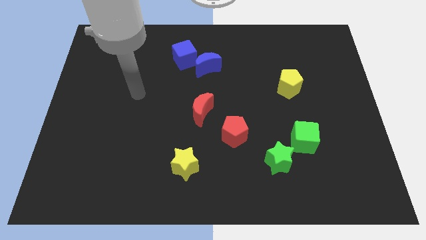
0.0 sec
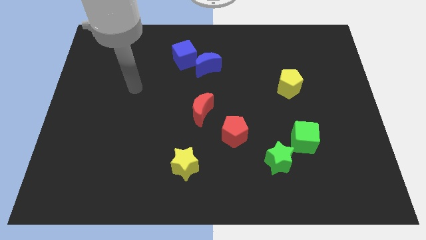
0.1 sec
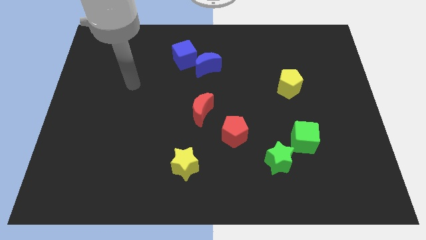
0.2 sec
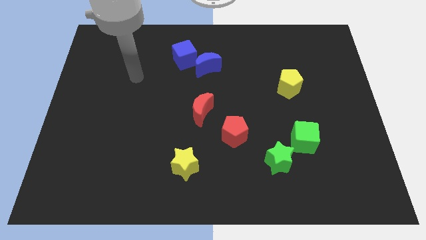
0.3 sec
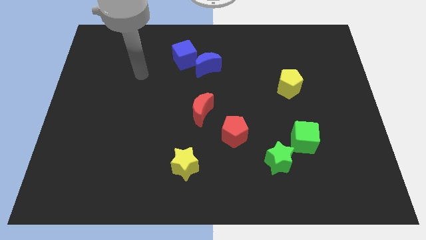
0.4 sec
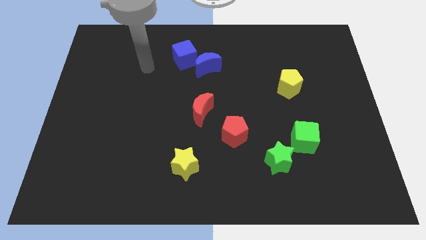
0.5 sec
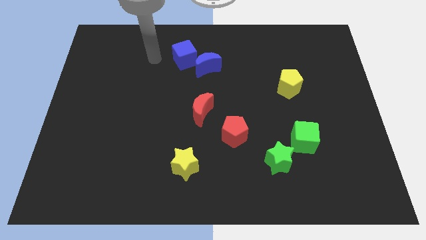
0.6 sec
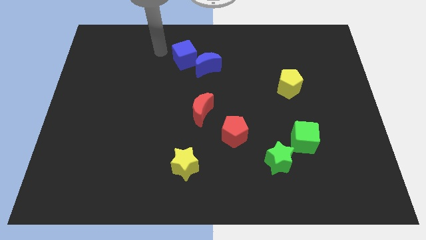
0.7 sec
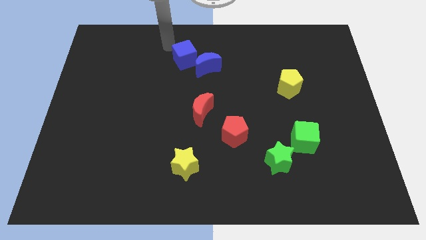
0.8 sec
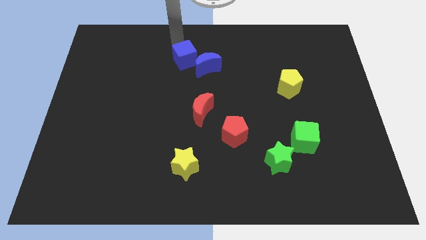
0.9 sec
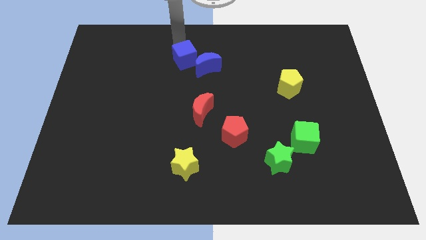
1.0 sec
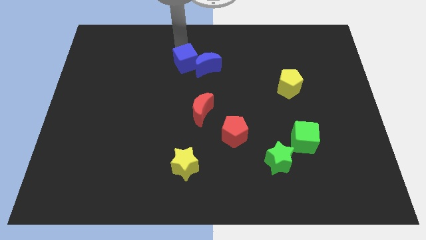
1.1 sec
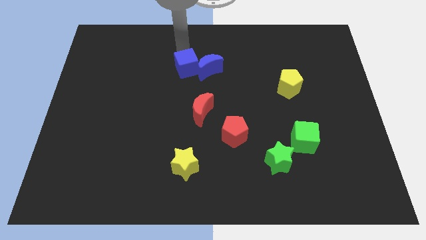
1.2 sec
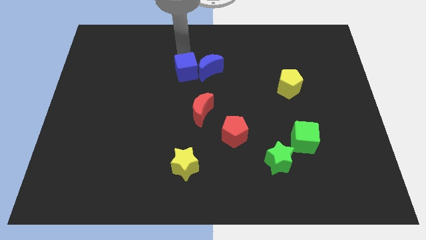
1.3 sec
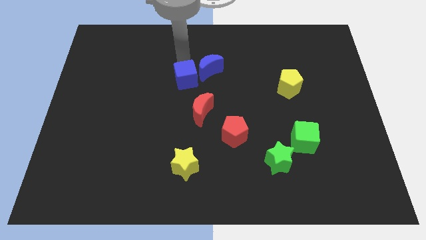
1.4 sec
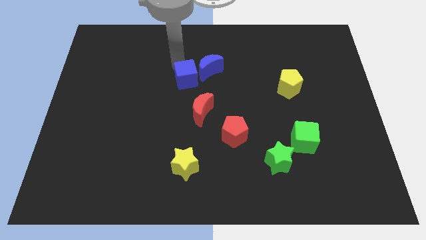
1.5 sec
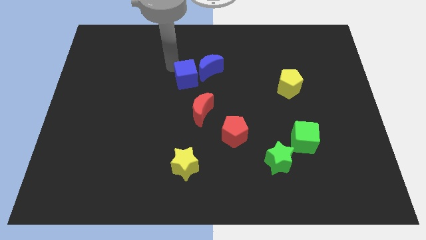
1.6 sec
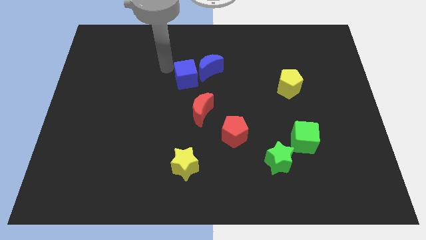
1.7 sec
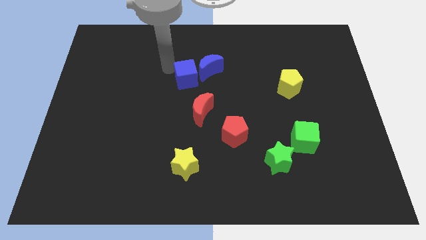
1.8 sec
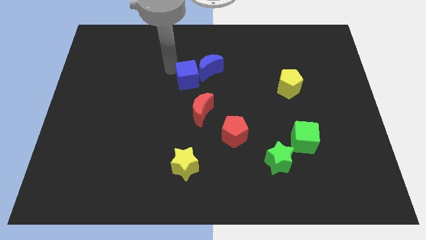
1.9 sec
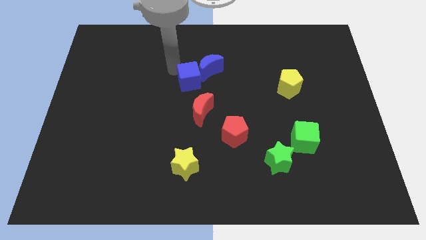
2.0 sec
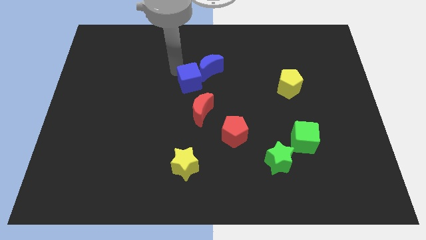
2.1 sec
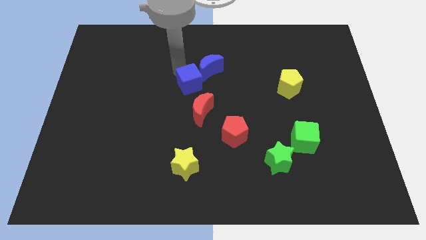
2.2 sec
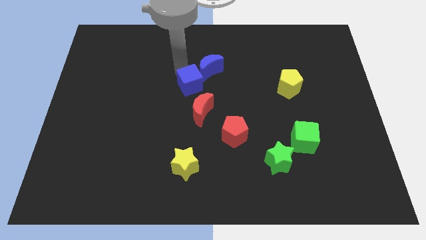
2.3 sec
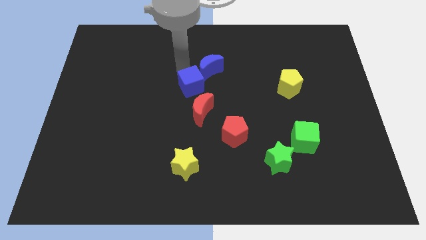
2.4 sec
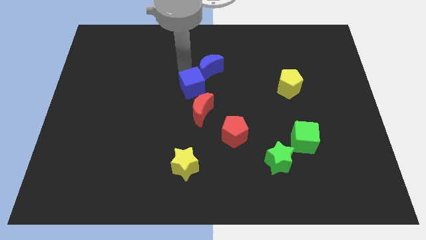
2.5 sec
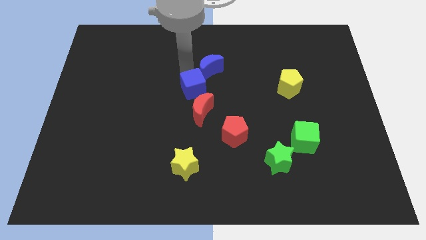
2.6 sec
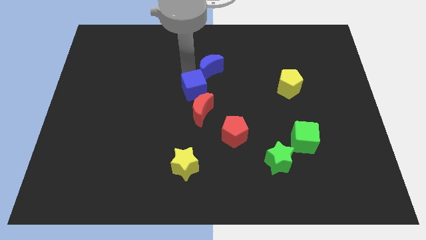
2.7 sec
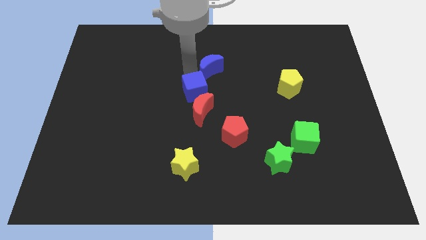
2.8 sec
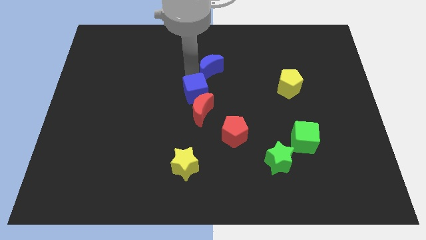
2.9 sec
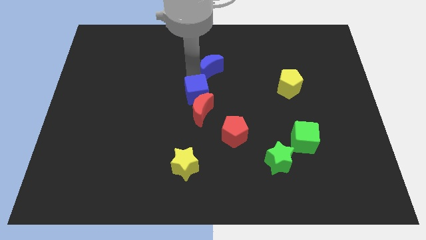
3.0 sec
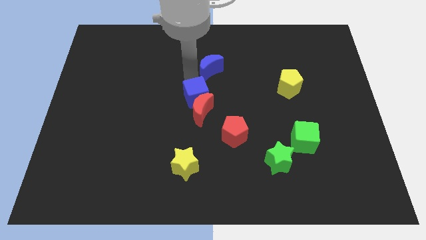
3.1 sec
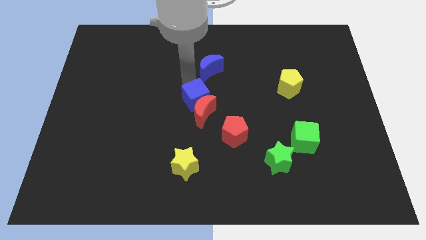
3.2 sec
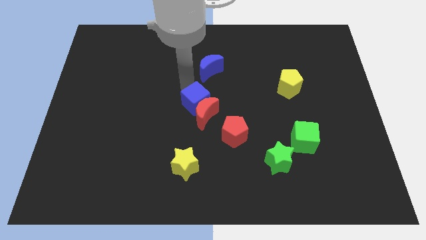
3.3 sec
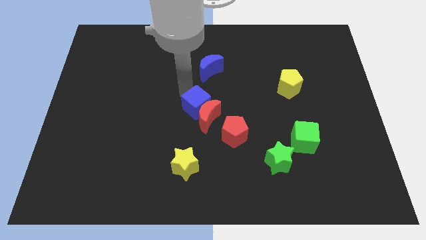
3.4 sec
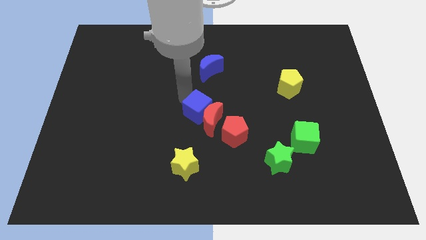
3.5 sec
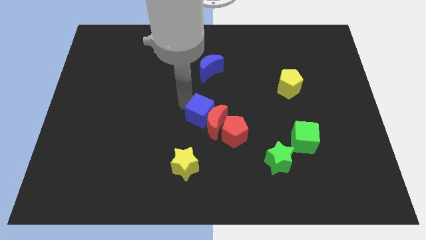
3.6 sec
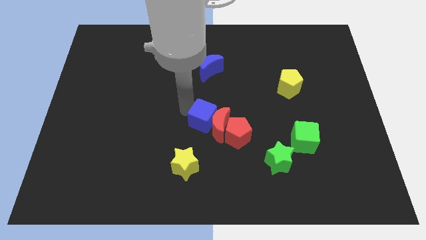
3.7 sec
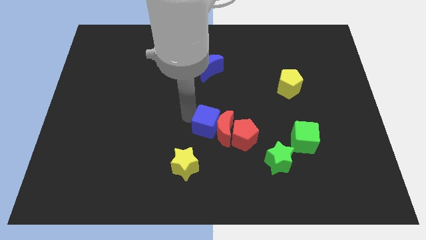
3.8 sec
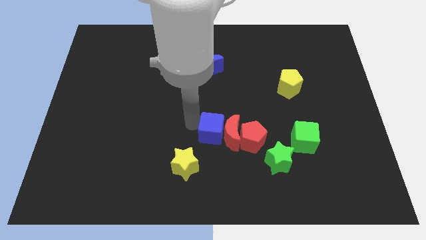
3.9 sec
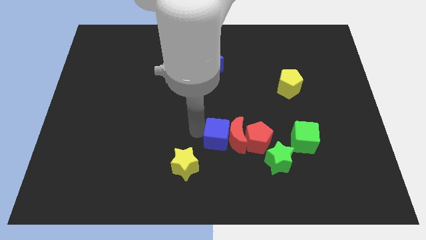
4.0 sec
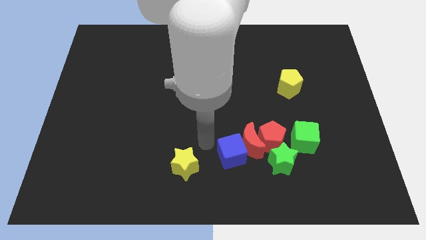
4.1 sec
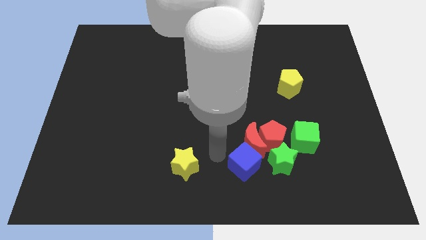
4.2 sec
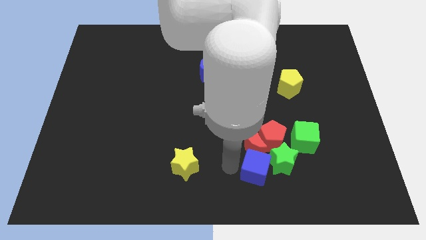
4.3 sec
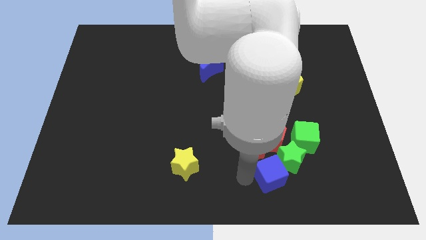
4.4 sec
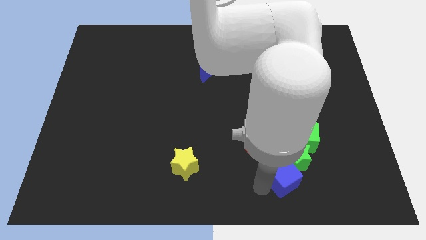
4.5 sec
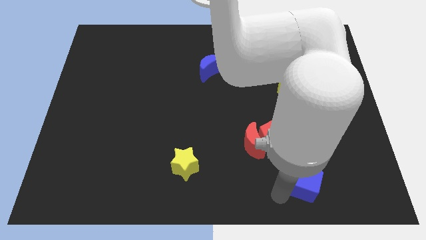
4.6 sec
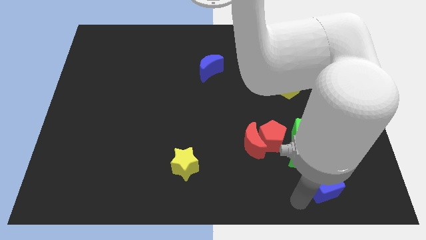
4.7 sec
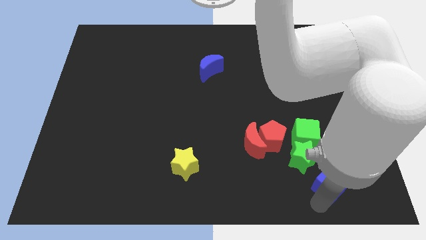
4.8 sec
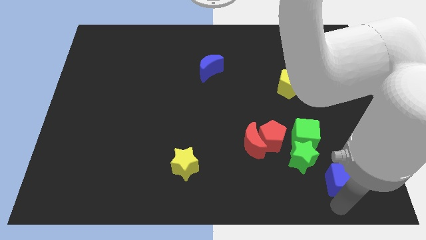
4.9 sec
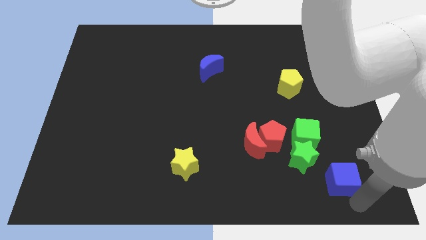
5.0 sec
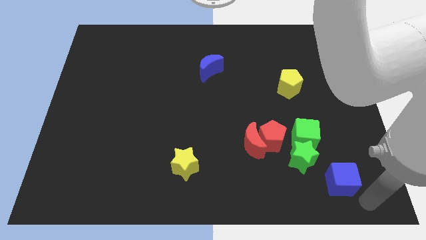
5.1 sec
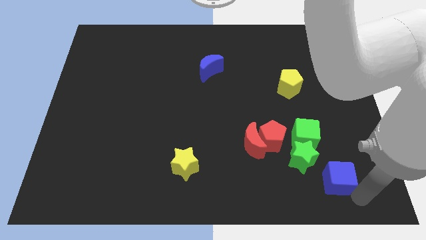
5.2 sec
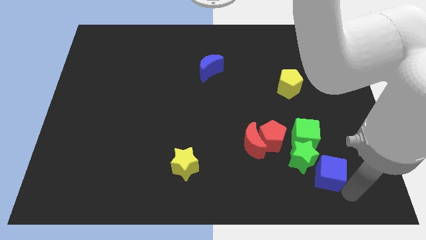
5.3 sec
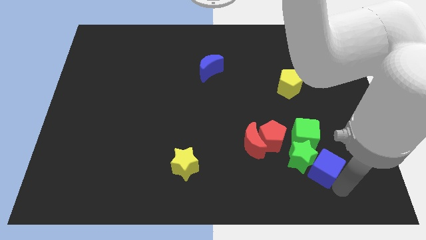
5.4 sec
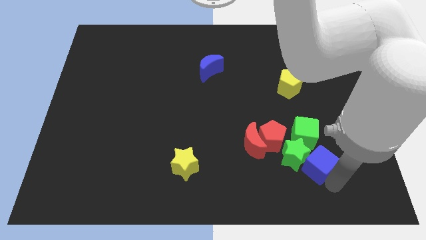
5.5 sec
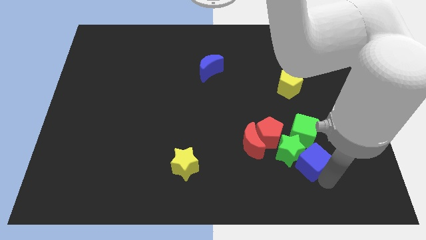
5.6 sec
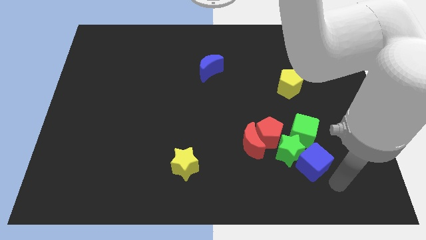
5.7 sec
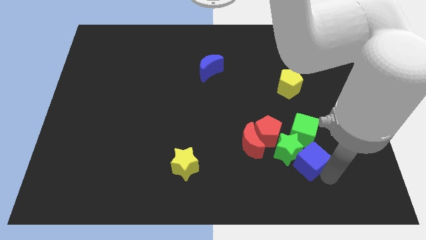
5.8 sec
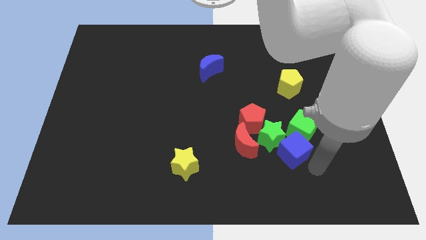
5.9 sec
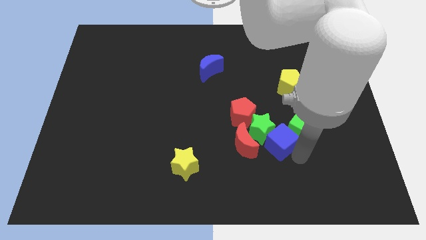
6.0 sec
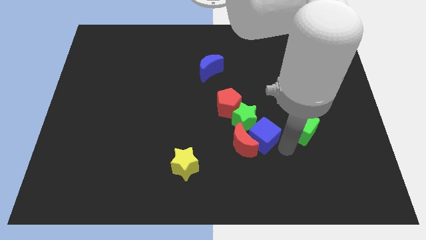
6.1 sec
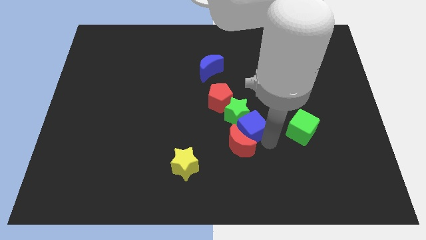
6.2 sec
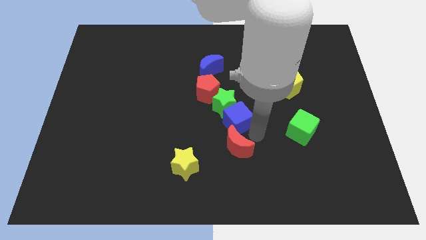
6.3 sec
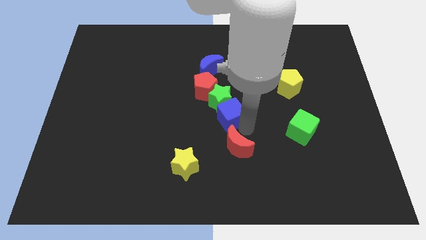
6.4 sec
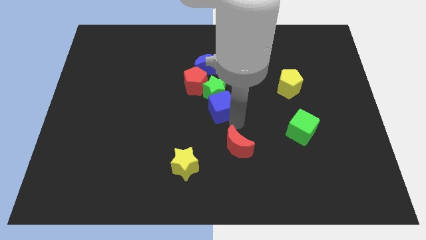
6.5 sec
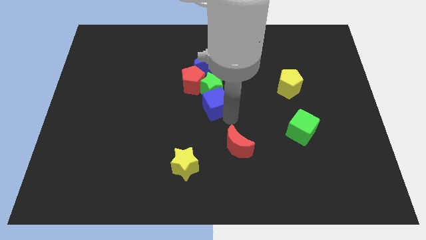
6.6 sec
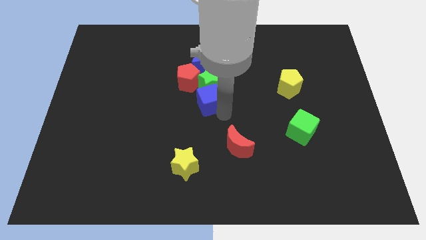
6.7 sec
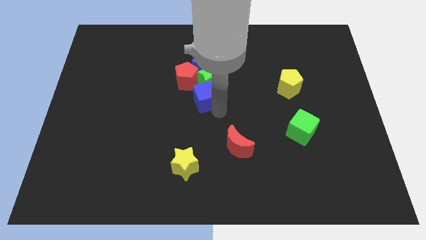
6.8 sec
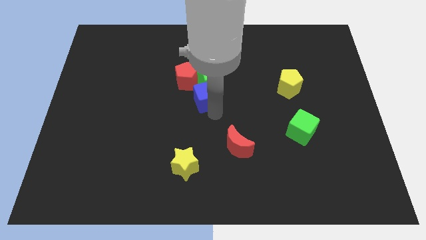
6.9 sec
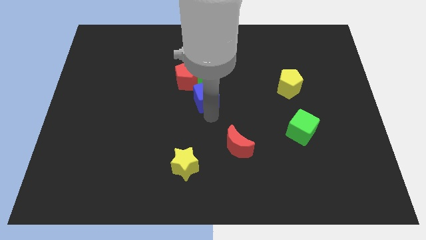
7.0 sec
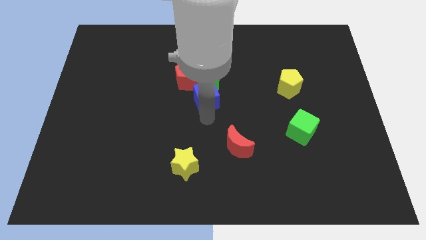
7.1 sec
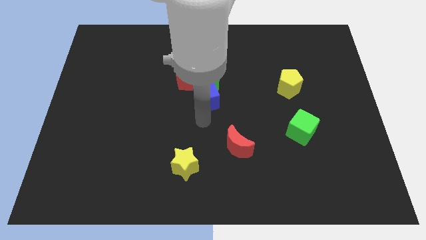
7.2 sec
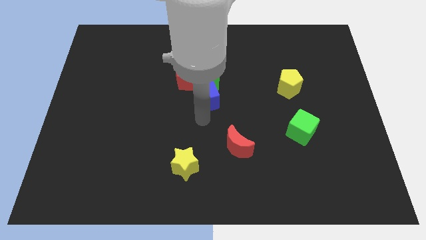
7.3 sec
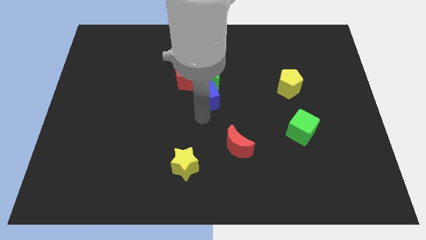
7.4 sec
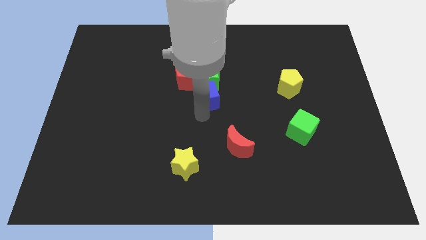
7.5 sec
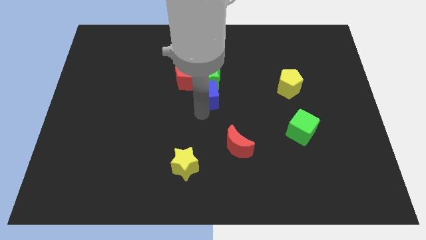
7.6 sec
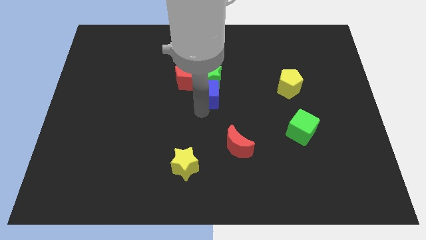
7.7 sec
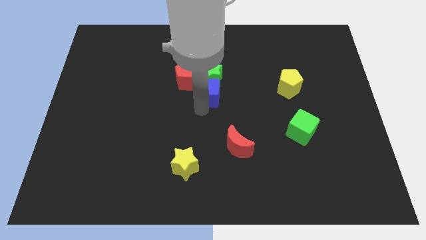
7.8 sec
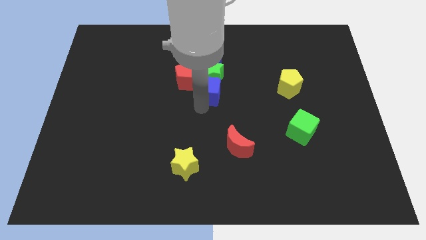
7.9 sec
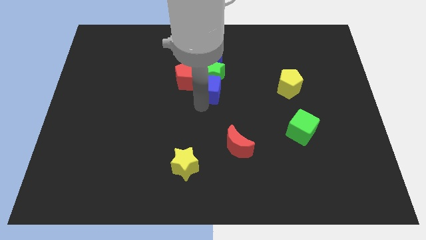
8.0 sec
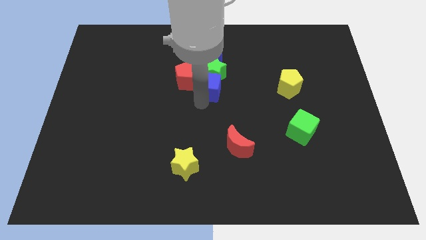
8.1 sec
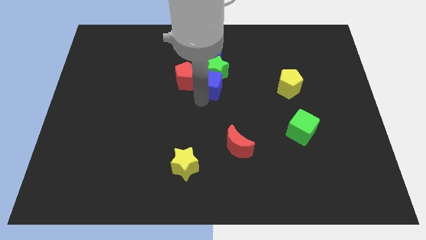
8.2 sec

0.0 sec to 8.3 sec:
put the blue cube next to the red pentagon
